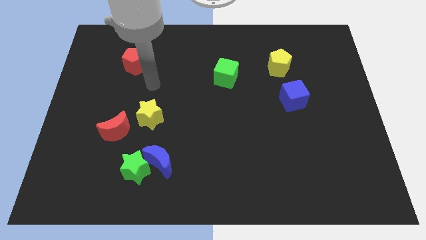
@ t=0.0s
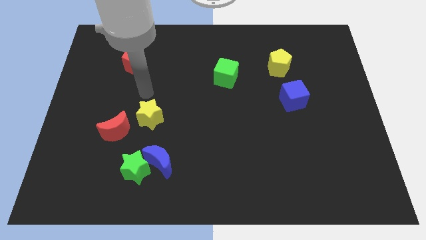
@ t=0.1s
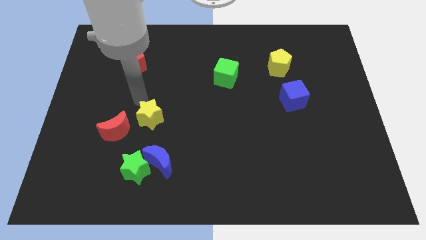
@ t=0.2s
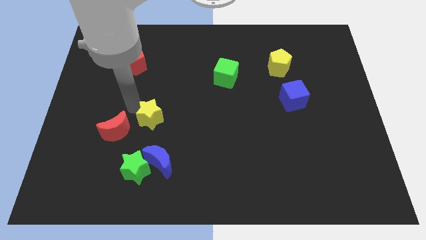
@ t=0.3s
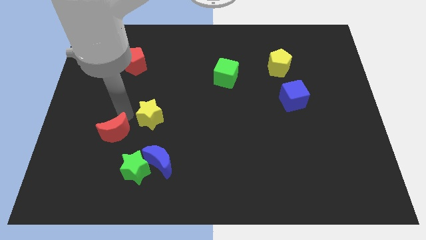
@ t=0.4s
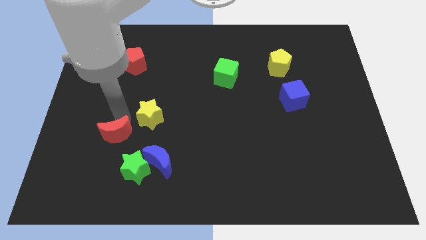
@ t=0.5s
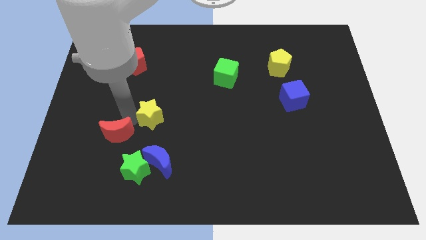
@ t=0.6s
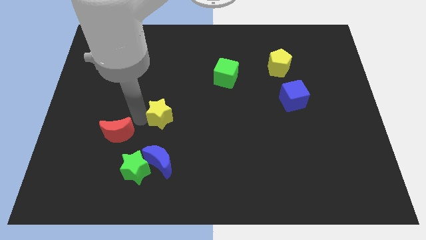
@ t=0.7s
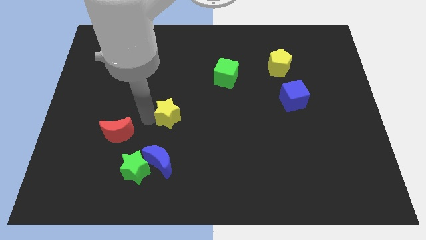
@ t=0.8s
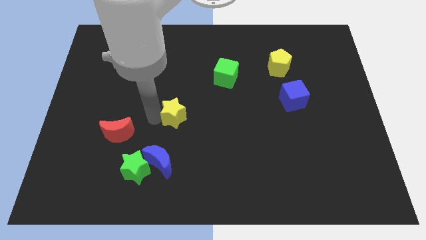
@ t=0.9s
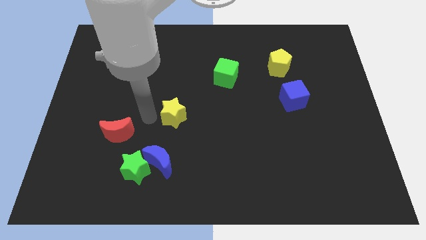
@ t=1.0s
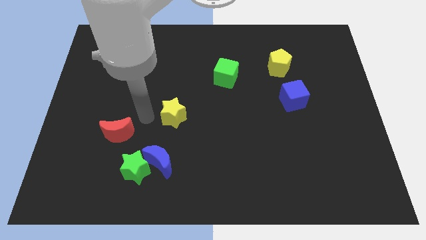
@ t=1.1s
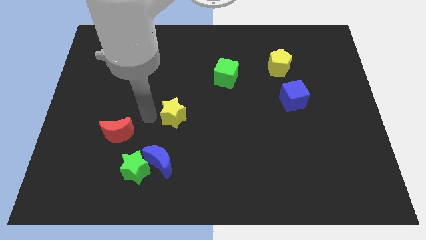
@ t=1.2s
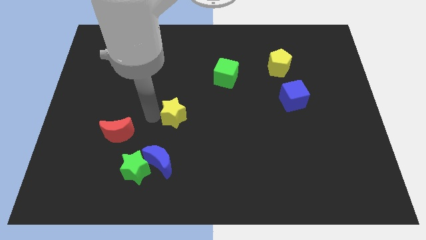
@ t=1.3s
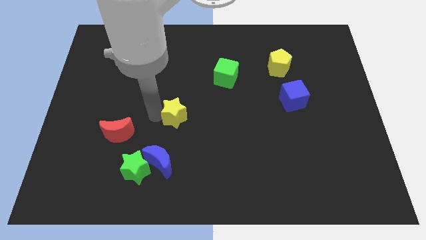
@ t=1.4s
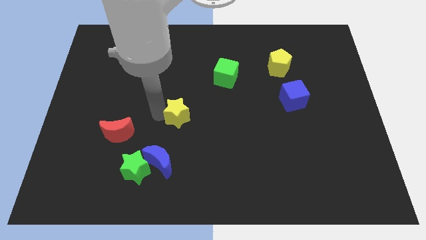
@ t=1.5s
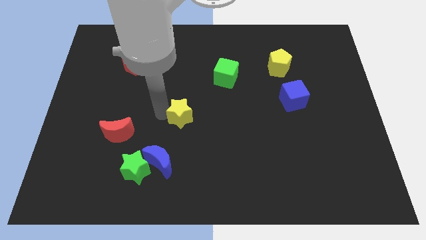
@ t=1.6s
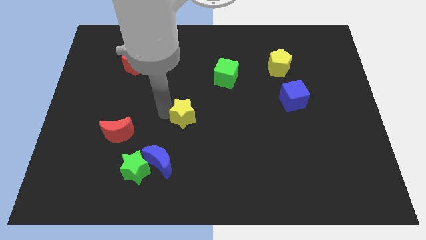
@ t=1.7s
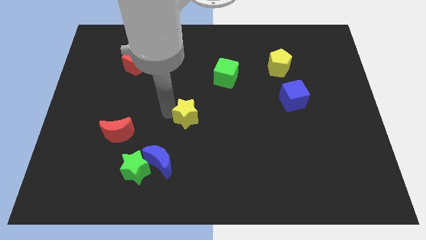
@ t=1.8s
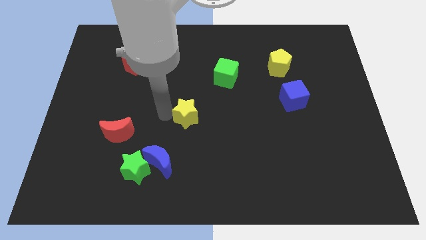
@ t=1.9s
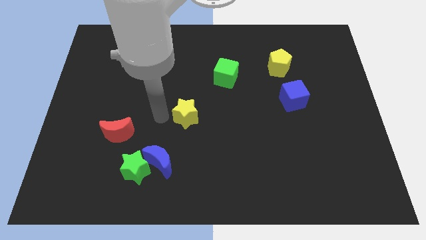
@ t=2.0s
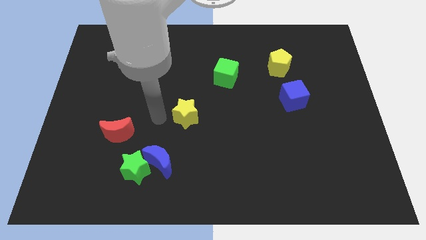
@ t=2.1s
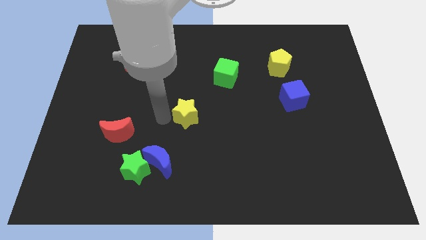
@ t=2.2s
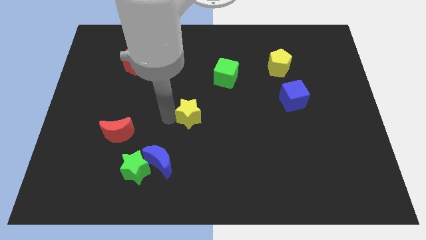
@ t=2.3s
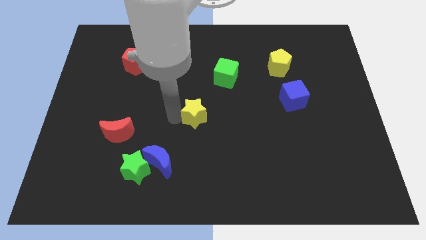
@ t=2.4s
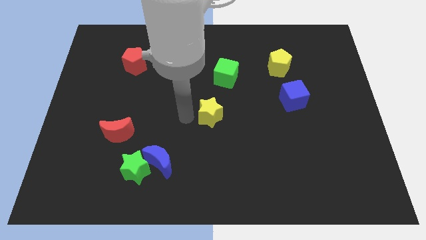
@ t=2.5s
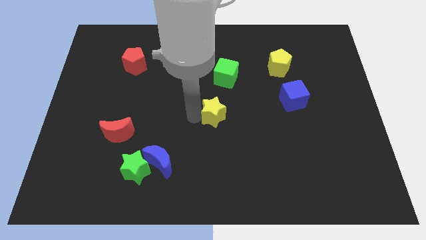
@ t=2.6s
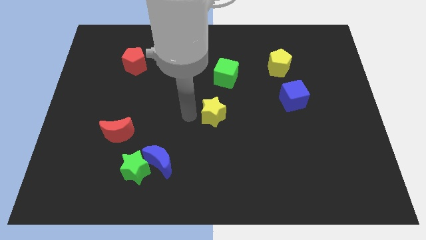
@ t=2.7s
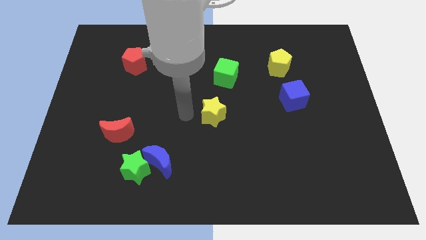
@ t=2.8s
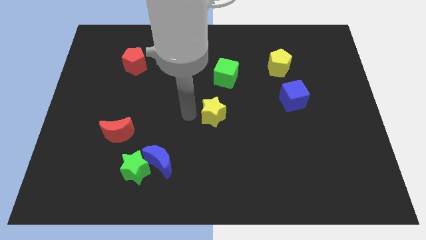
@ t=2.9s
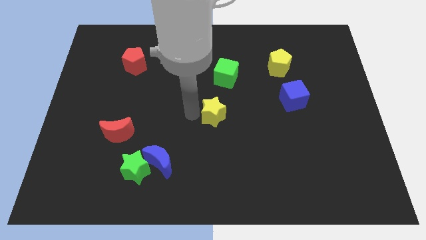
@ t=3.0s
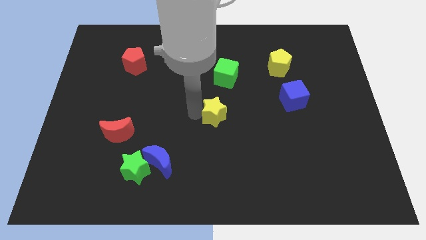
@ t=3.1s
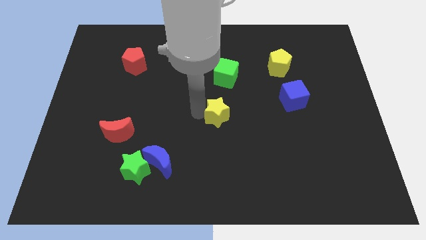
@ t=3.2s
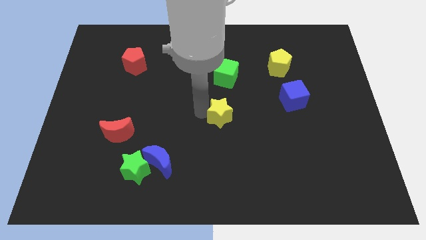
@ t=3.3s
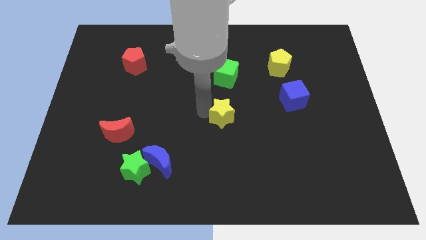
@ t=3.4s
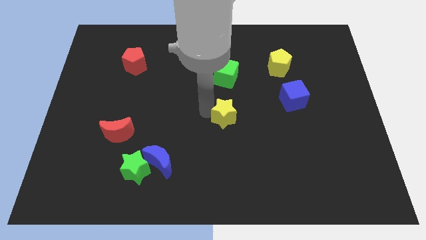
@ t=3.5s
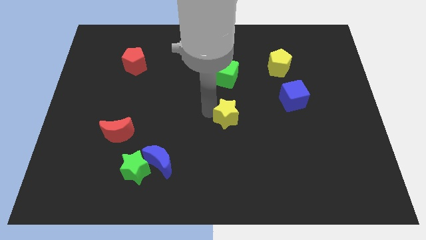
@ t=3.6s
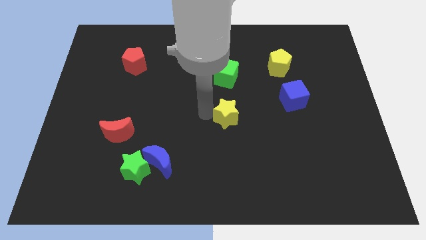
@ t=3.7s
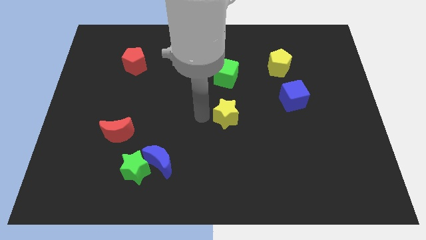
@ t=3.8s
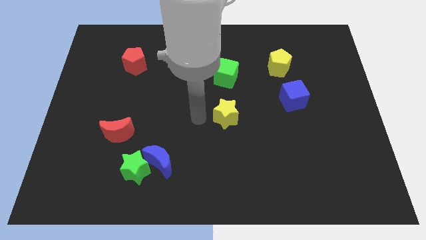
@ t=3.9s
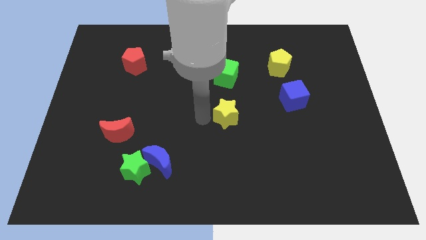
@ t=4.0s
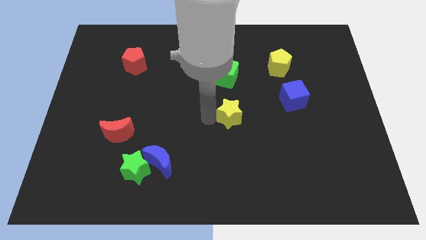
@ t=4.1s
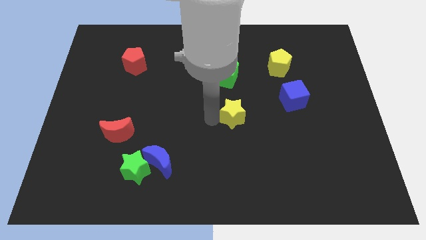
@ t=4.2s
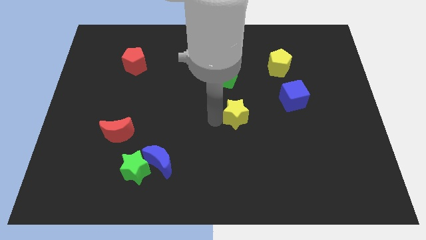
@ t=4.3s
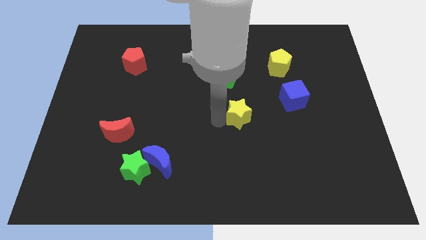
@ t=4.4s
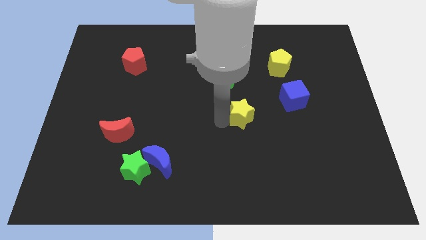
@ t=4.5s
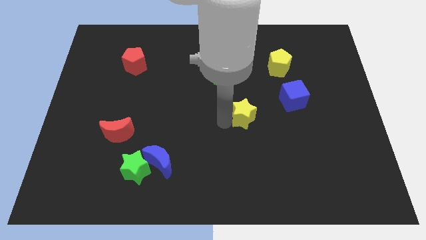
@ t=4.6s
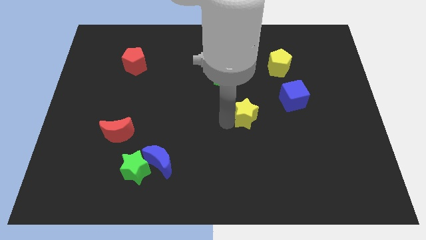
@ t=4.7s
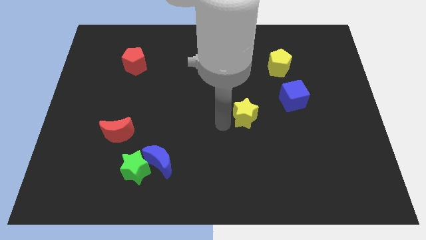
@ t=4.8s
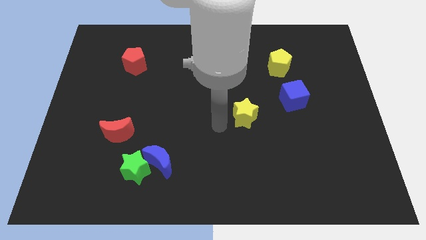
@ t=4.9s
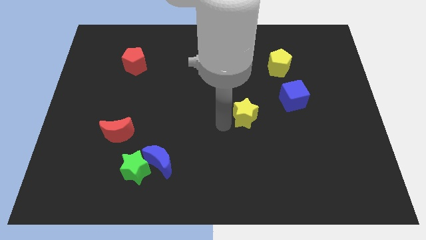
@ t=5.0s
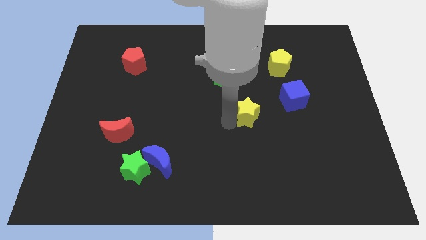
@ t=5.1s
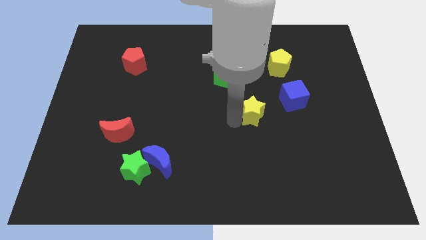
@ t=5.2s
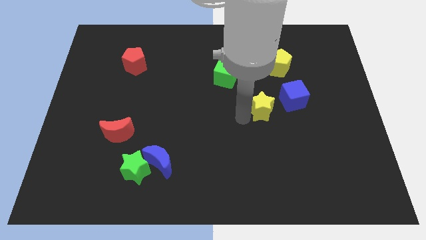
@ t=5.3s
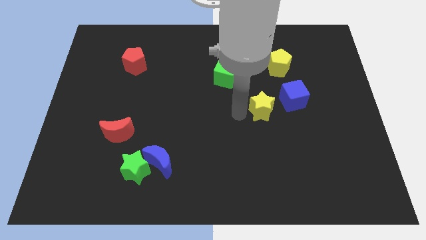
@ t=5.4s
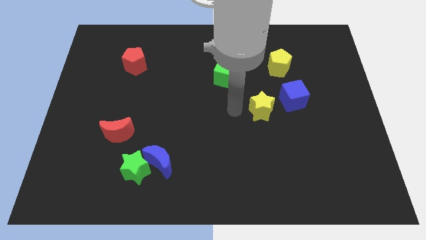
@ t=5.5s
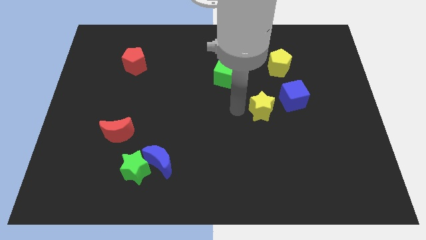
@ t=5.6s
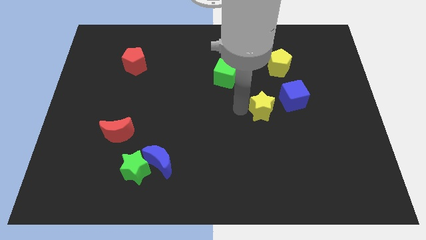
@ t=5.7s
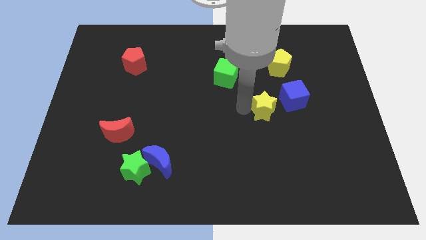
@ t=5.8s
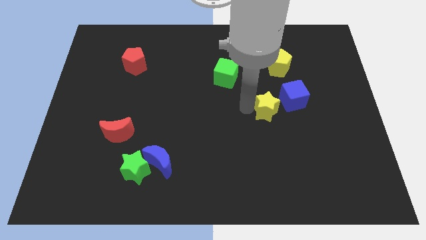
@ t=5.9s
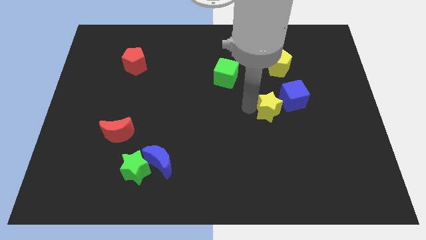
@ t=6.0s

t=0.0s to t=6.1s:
push the yellow star below the yellow pentagon

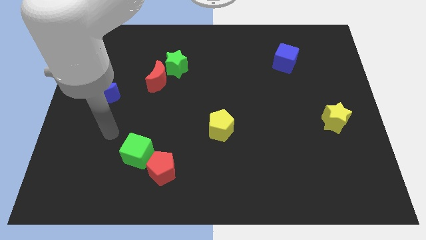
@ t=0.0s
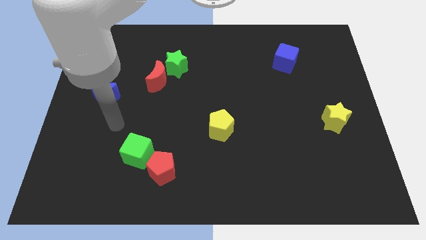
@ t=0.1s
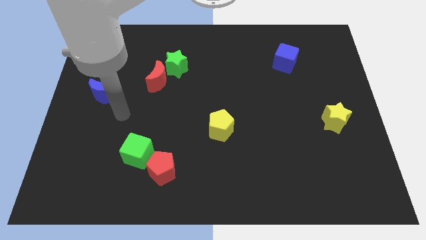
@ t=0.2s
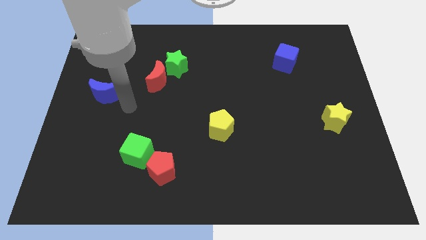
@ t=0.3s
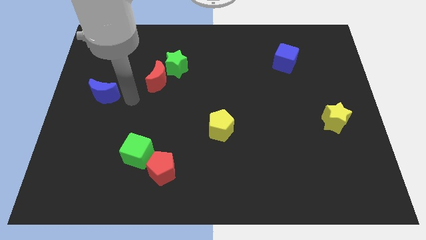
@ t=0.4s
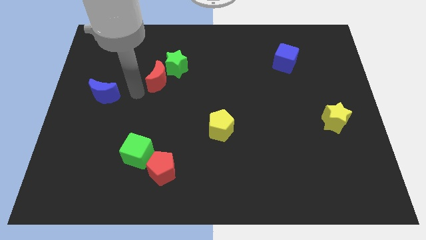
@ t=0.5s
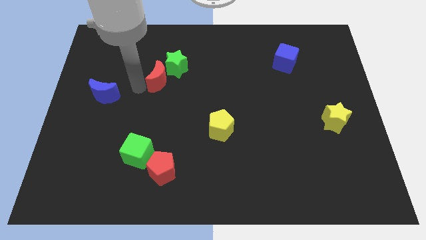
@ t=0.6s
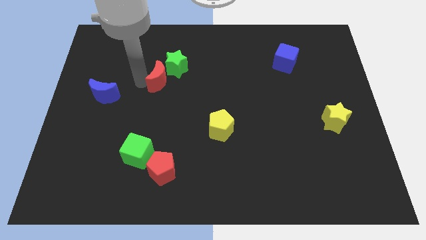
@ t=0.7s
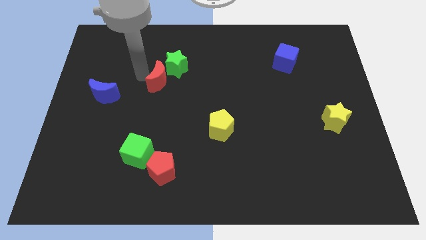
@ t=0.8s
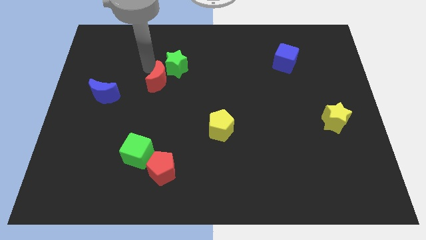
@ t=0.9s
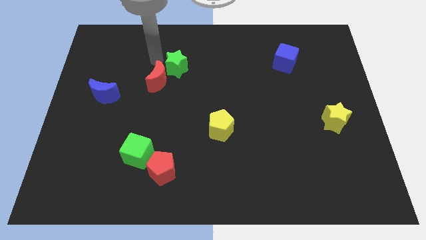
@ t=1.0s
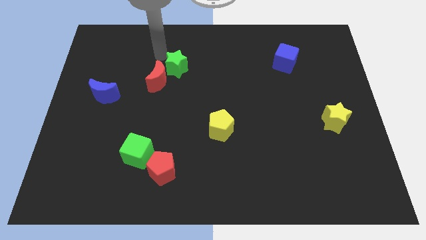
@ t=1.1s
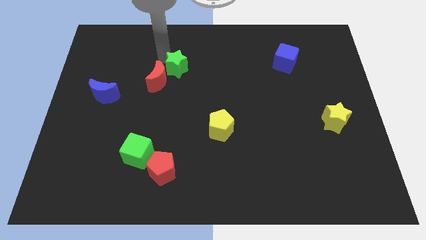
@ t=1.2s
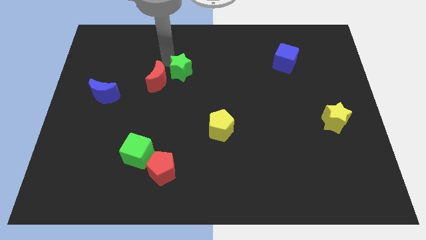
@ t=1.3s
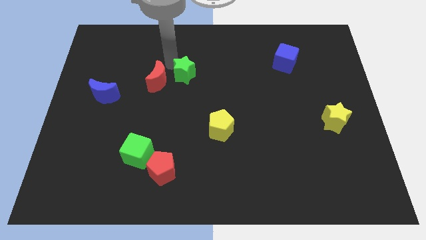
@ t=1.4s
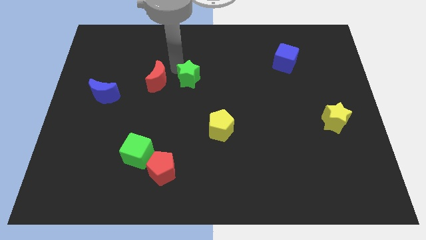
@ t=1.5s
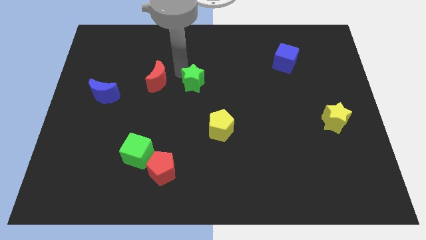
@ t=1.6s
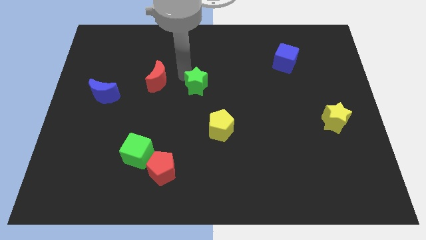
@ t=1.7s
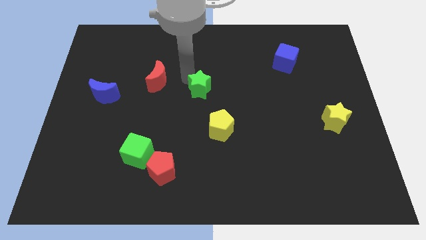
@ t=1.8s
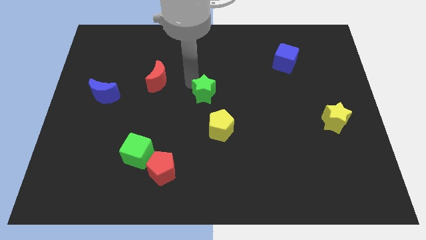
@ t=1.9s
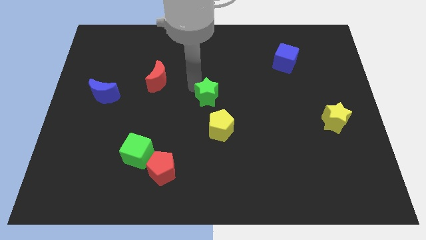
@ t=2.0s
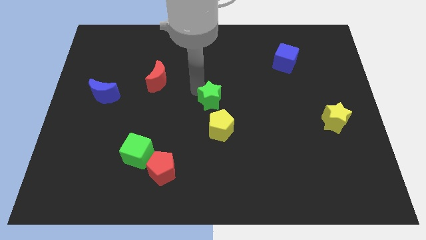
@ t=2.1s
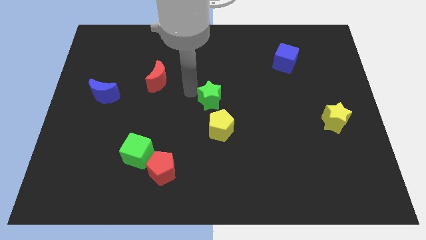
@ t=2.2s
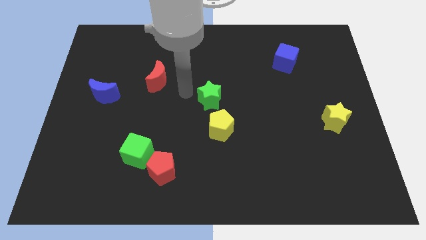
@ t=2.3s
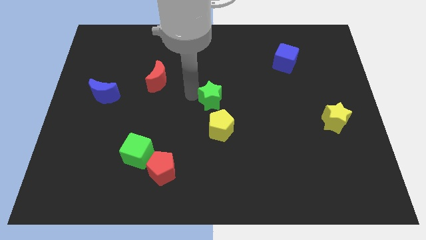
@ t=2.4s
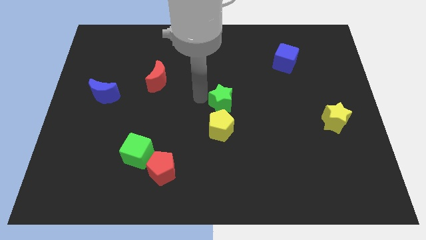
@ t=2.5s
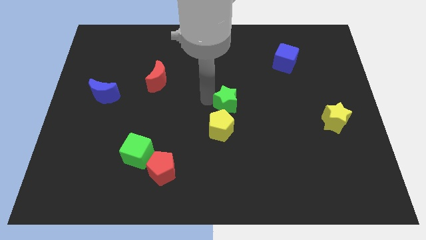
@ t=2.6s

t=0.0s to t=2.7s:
move the green star to the top right of the yellow pentagon
